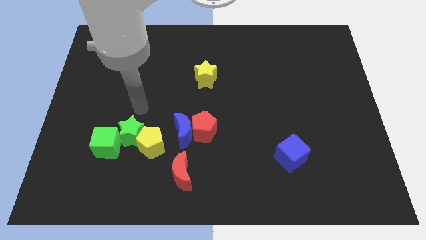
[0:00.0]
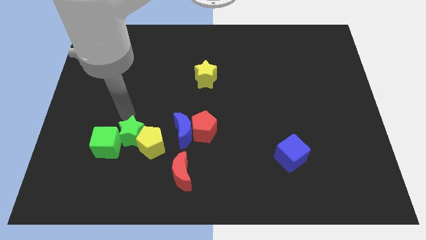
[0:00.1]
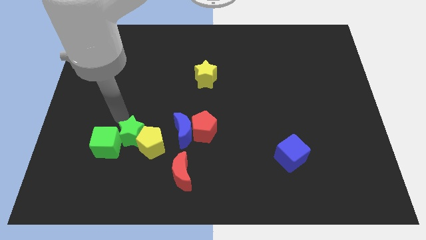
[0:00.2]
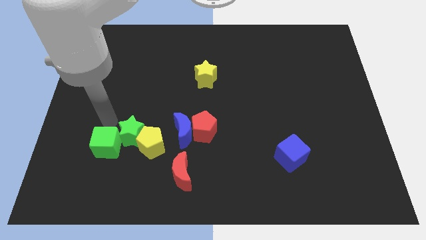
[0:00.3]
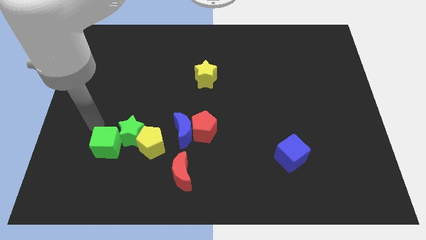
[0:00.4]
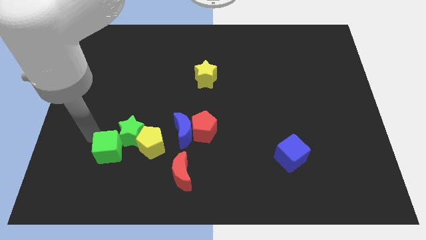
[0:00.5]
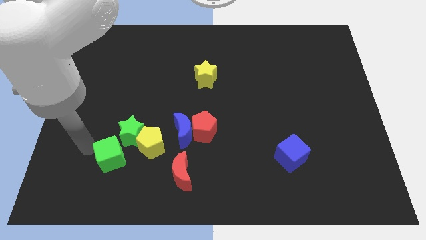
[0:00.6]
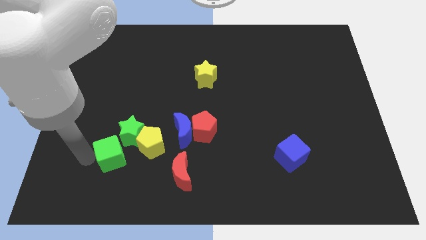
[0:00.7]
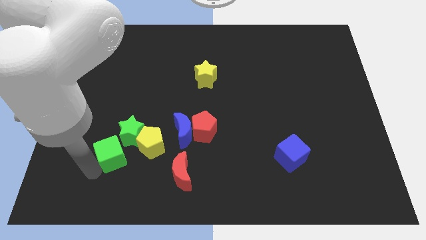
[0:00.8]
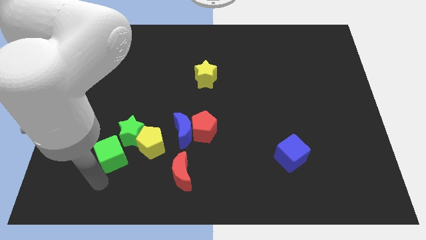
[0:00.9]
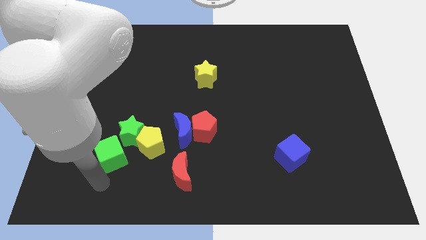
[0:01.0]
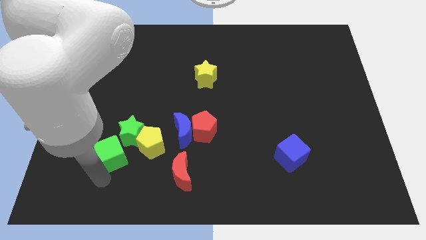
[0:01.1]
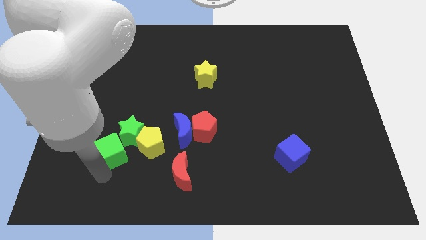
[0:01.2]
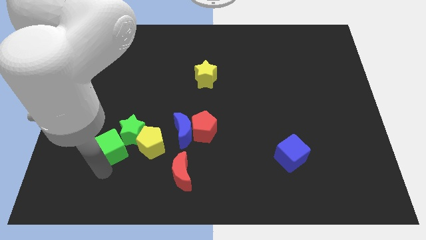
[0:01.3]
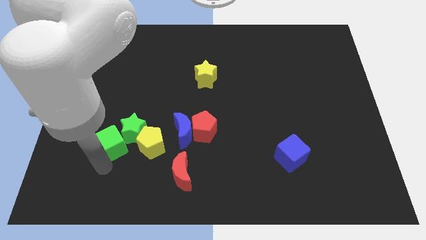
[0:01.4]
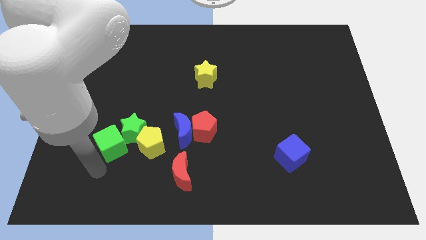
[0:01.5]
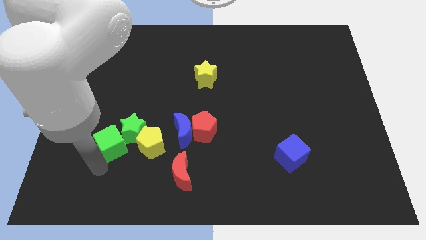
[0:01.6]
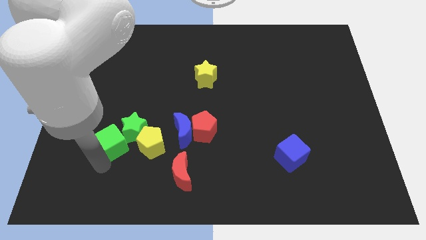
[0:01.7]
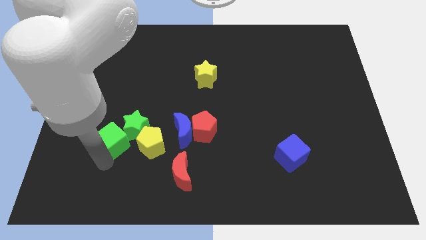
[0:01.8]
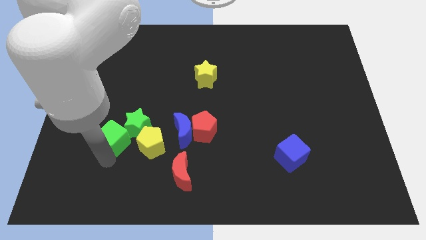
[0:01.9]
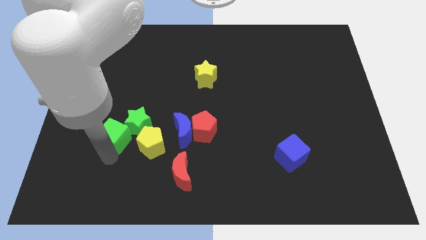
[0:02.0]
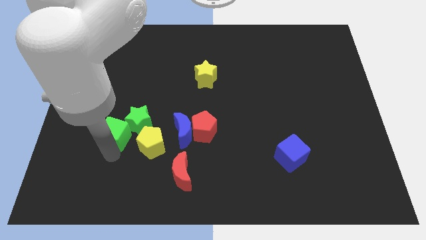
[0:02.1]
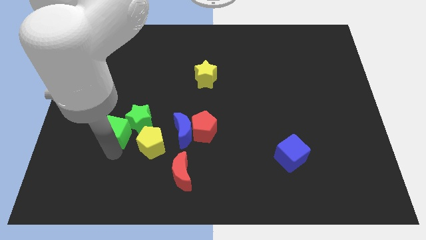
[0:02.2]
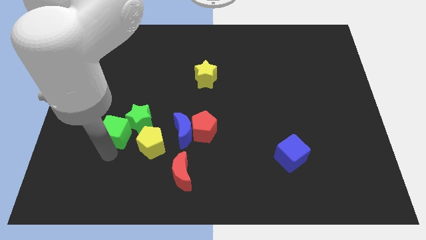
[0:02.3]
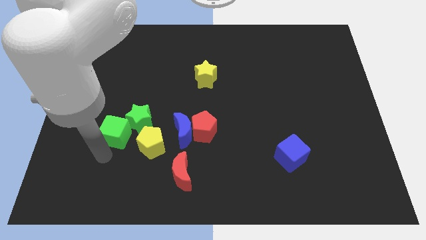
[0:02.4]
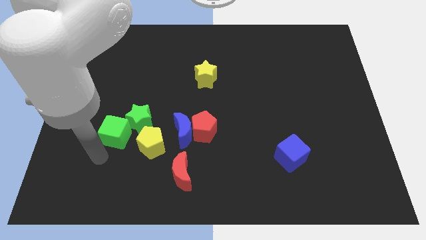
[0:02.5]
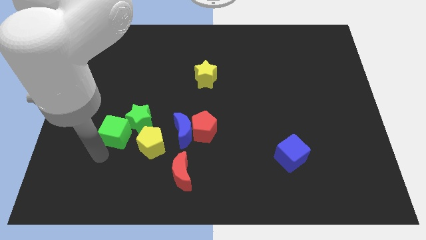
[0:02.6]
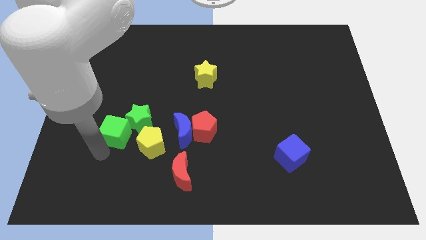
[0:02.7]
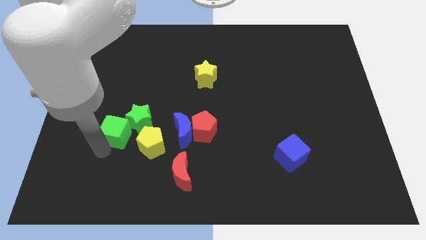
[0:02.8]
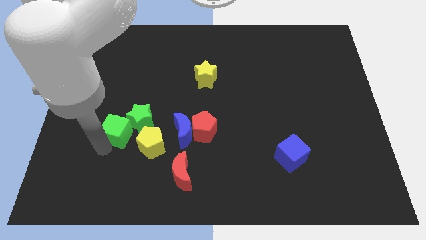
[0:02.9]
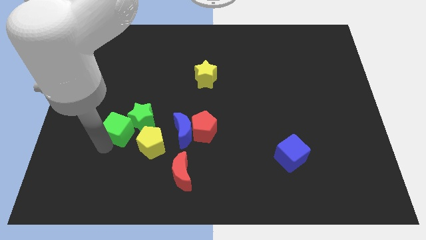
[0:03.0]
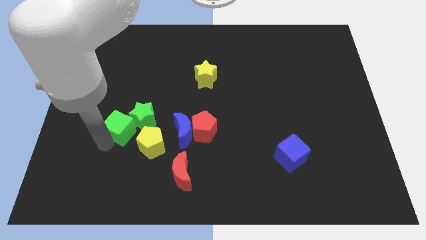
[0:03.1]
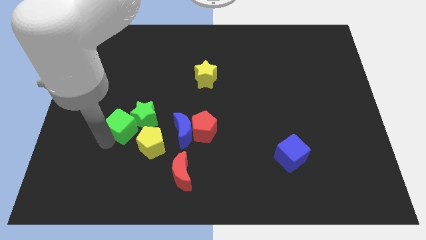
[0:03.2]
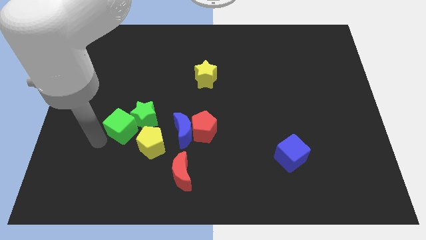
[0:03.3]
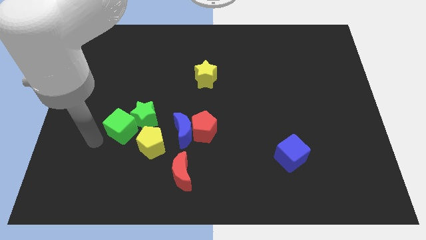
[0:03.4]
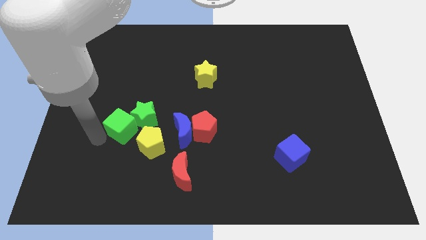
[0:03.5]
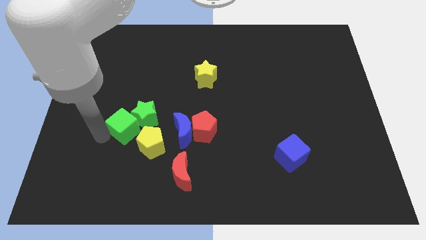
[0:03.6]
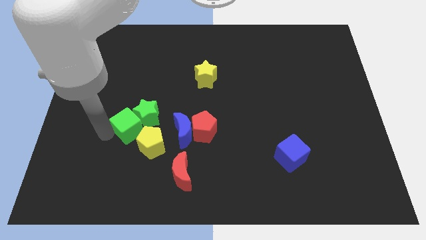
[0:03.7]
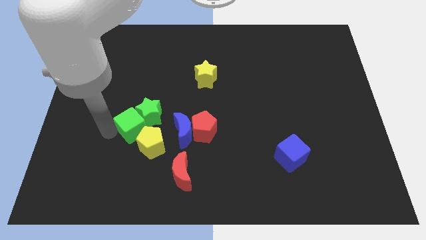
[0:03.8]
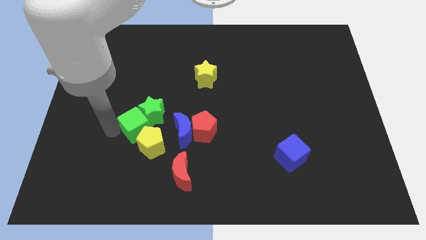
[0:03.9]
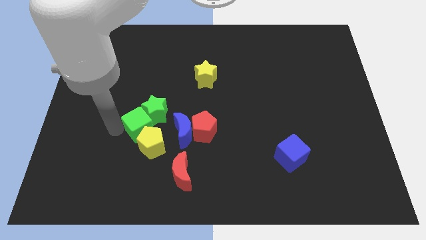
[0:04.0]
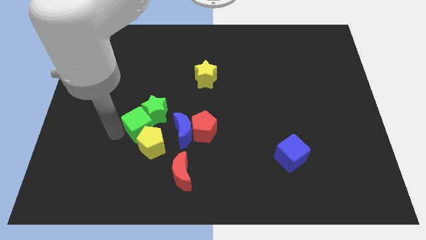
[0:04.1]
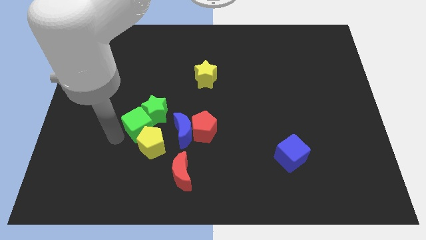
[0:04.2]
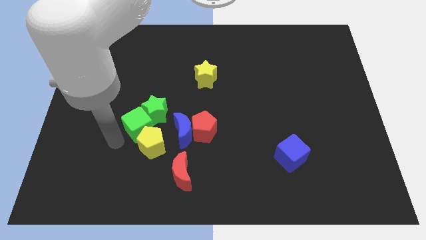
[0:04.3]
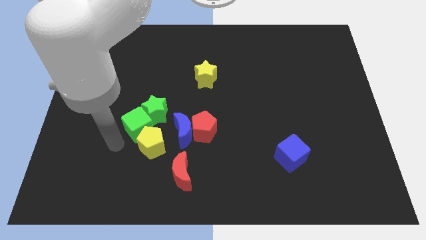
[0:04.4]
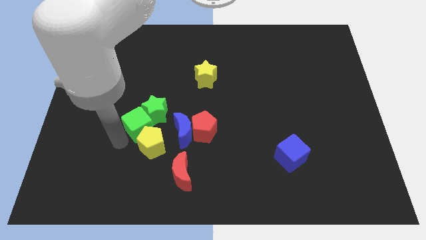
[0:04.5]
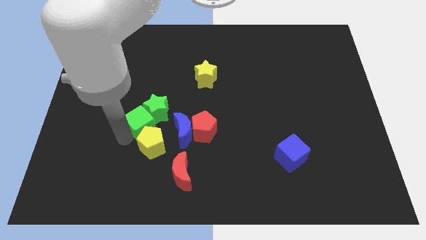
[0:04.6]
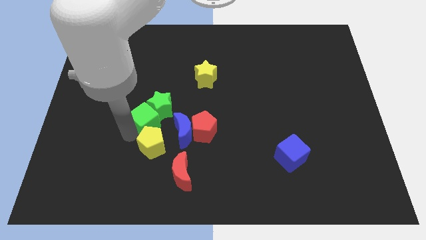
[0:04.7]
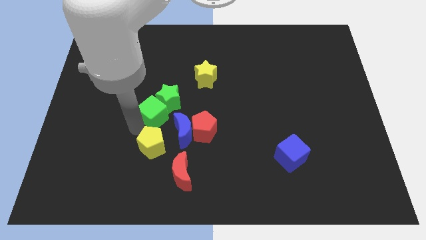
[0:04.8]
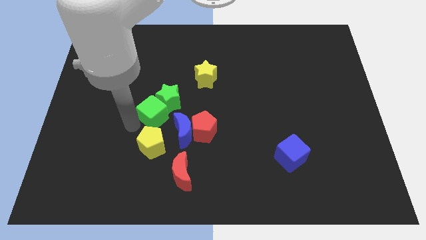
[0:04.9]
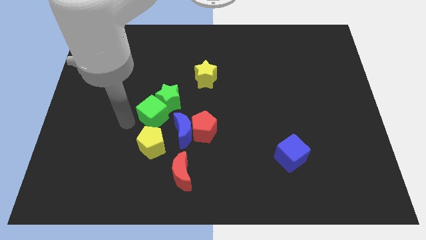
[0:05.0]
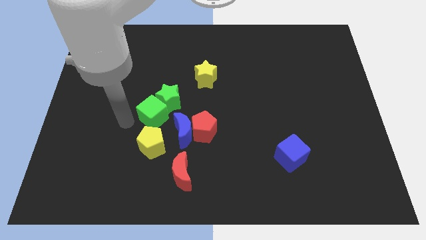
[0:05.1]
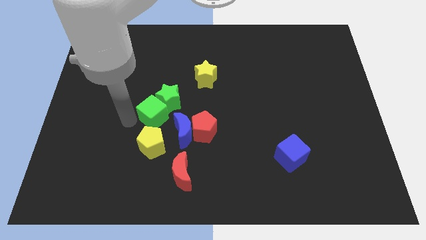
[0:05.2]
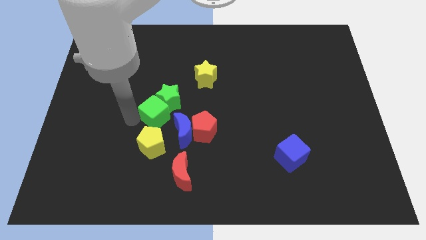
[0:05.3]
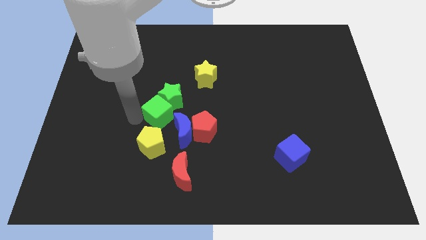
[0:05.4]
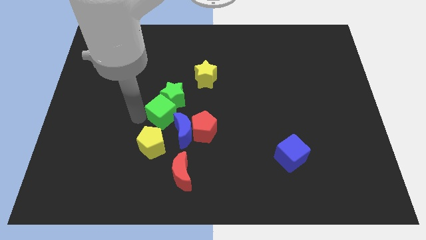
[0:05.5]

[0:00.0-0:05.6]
move the green cube to the middle of the board
